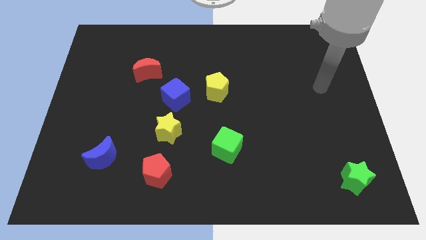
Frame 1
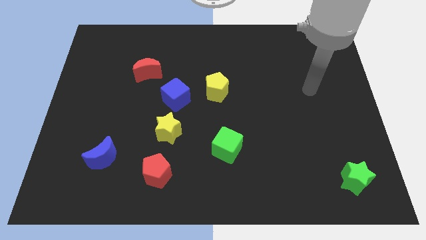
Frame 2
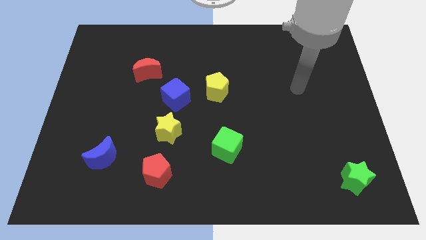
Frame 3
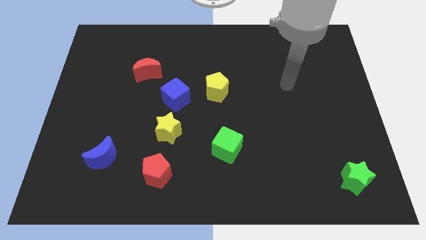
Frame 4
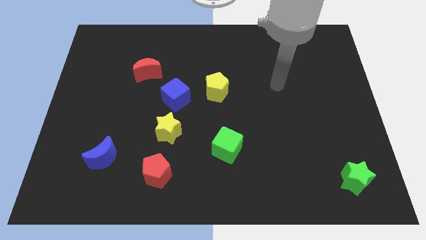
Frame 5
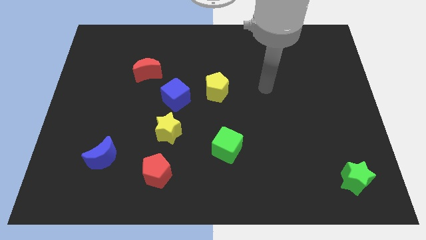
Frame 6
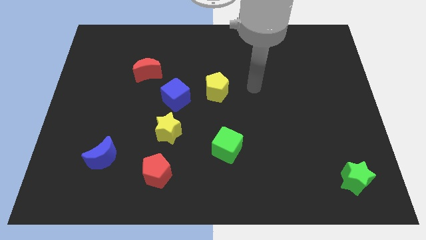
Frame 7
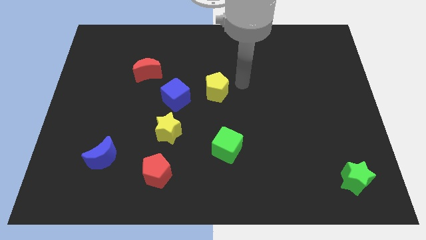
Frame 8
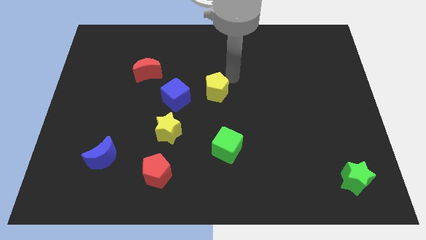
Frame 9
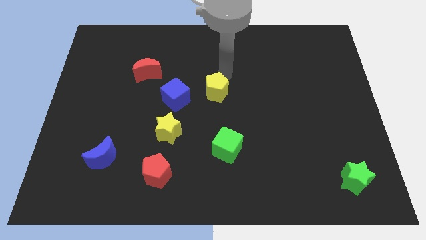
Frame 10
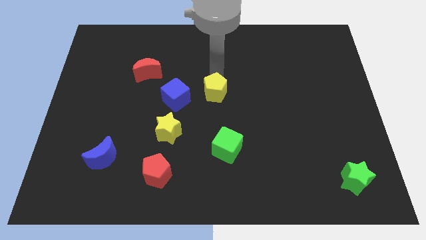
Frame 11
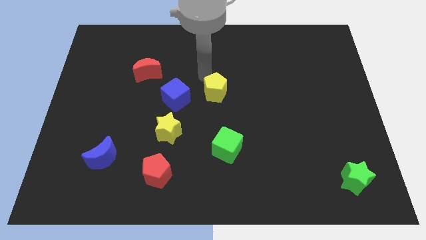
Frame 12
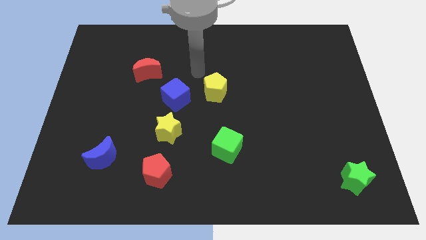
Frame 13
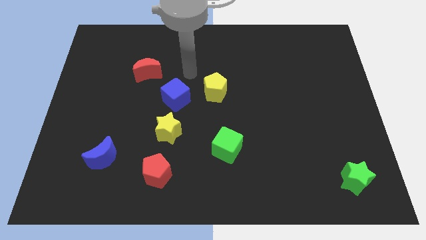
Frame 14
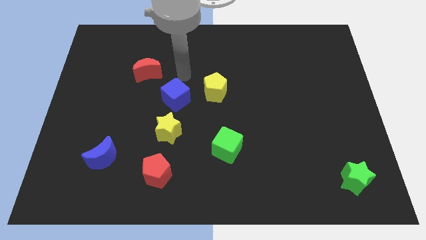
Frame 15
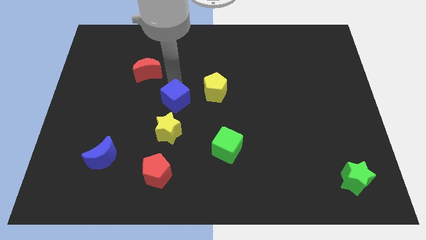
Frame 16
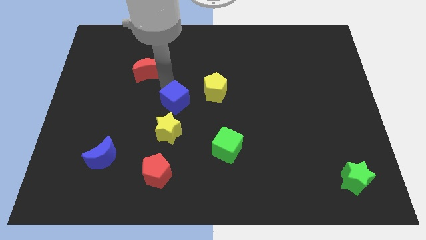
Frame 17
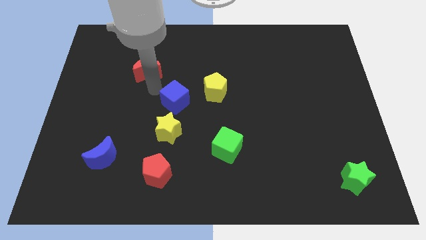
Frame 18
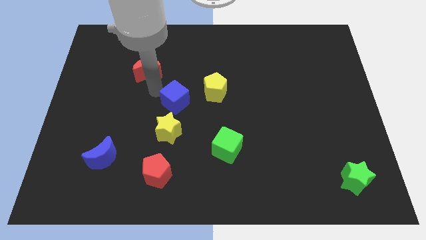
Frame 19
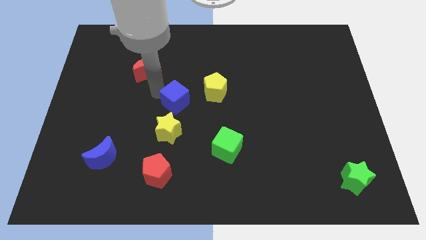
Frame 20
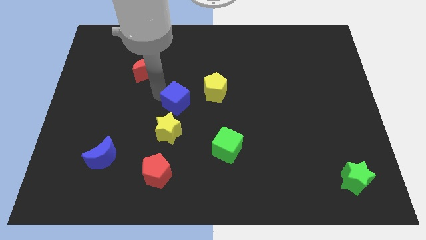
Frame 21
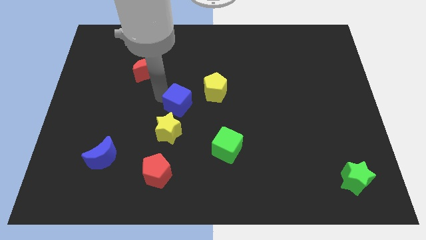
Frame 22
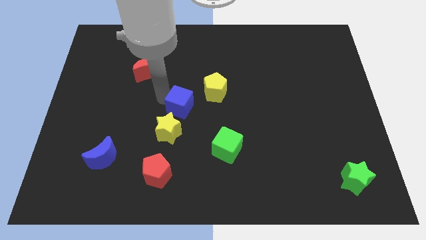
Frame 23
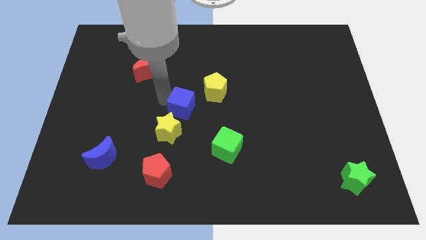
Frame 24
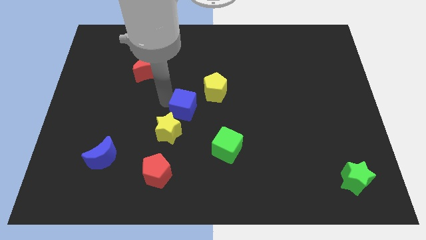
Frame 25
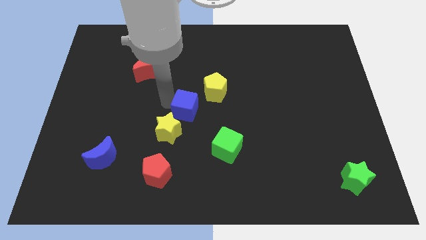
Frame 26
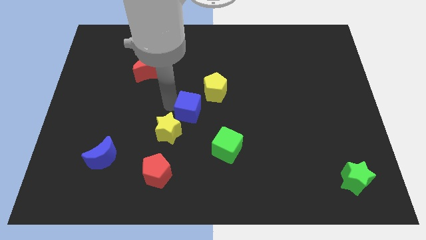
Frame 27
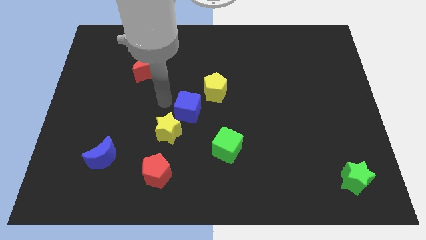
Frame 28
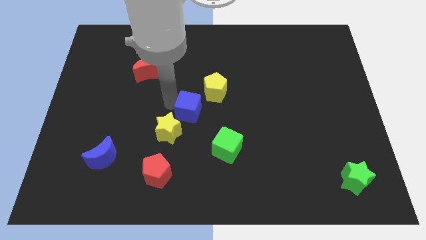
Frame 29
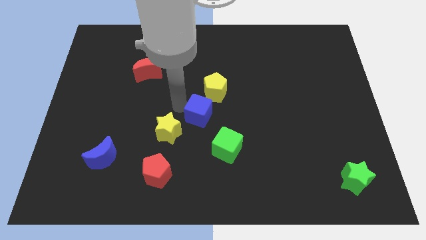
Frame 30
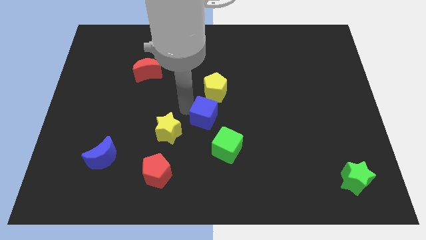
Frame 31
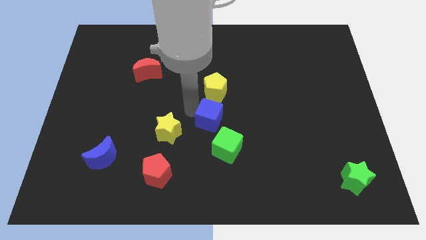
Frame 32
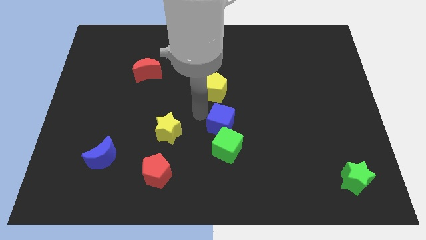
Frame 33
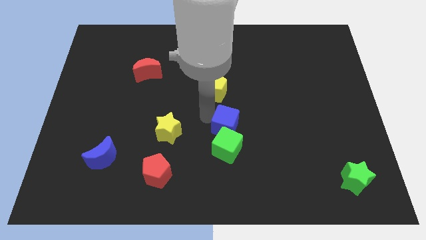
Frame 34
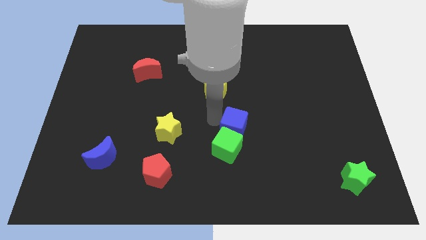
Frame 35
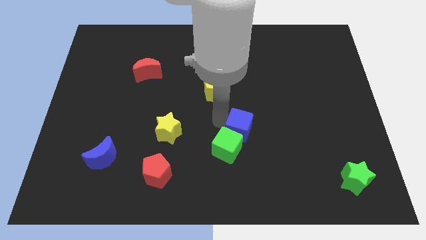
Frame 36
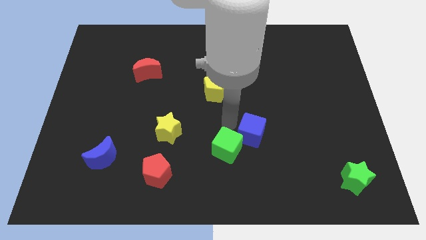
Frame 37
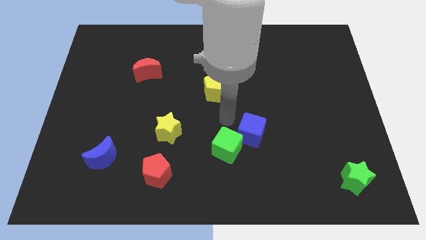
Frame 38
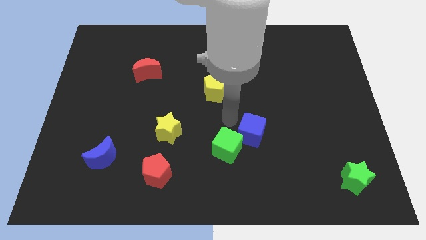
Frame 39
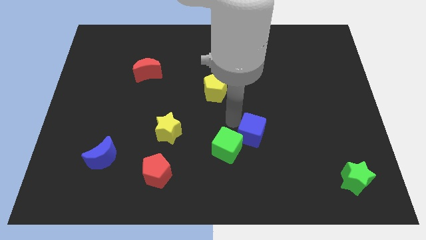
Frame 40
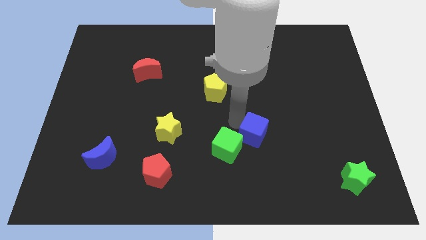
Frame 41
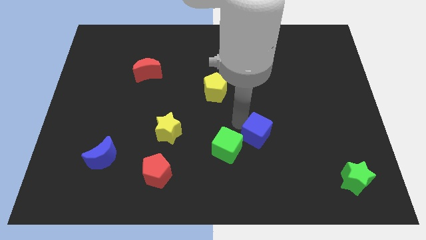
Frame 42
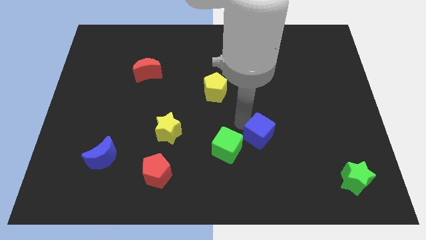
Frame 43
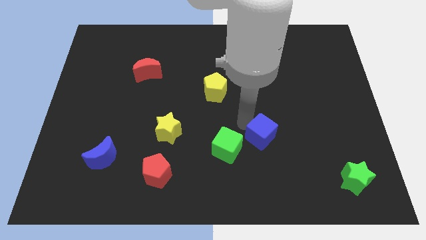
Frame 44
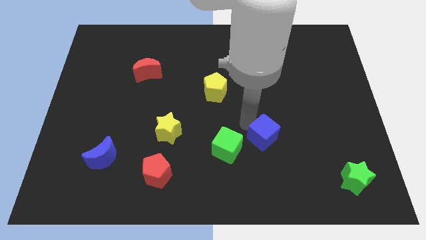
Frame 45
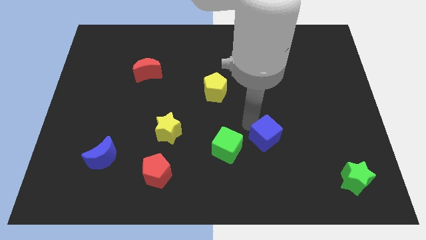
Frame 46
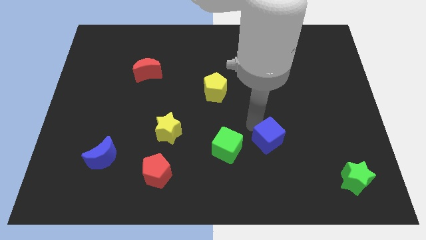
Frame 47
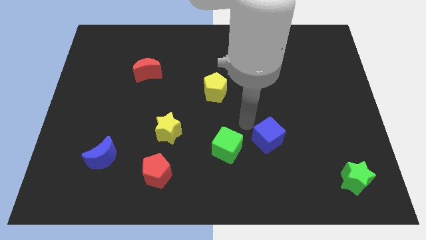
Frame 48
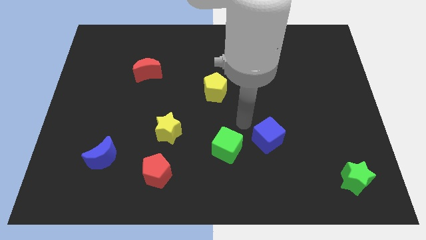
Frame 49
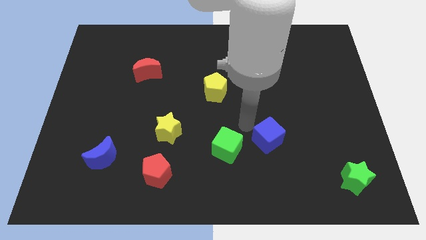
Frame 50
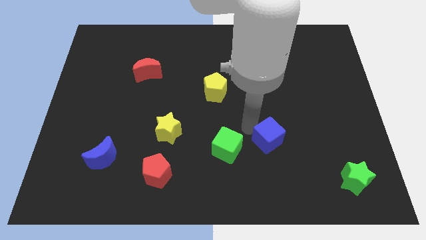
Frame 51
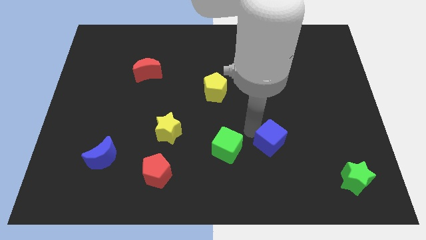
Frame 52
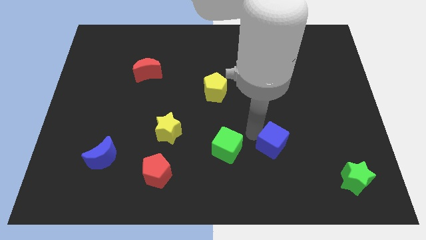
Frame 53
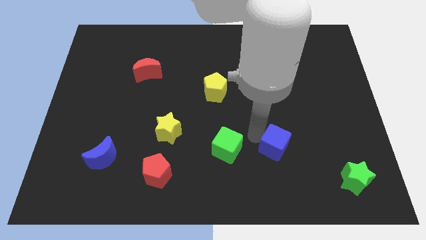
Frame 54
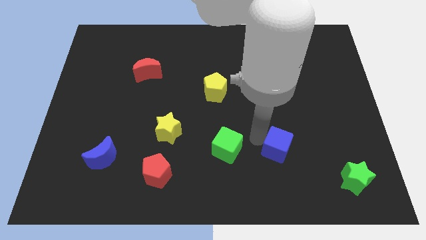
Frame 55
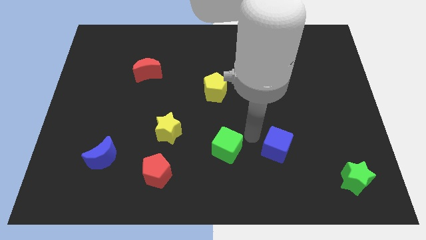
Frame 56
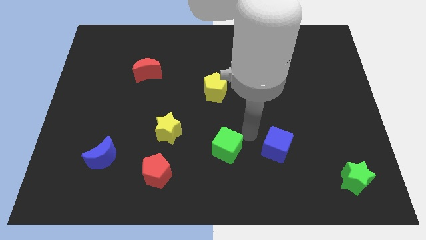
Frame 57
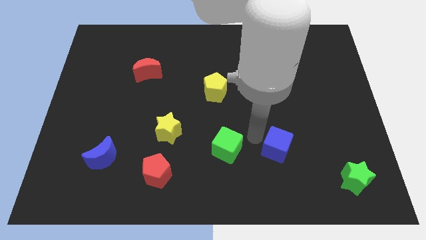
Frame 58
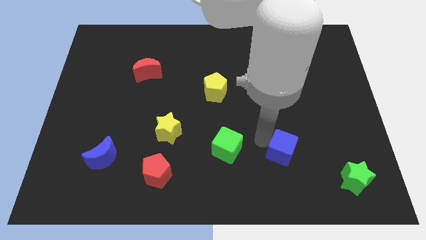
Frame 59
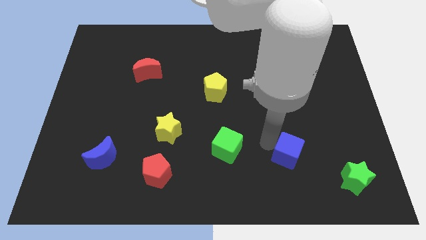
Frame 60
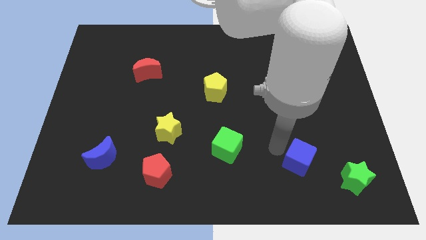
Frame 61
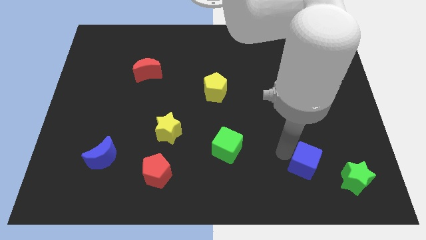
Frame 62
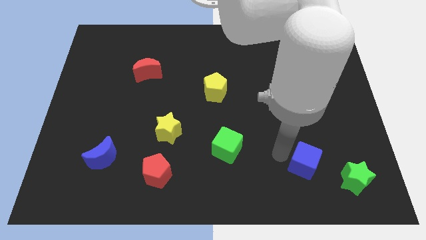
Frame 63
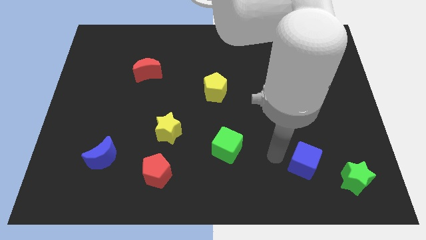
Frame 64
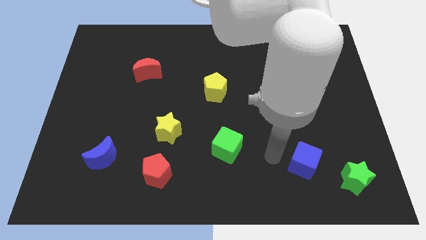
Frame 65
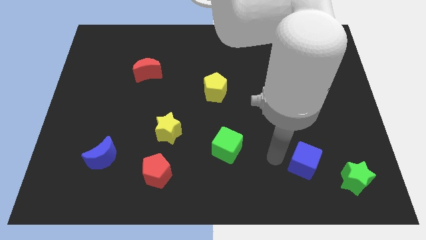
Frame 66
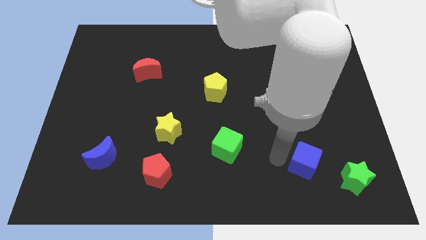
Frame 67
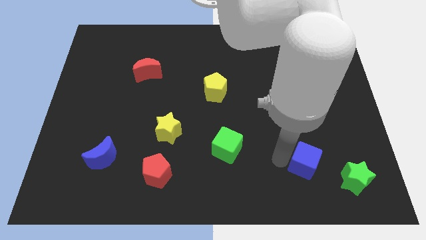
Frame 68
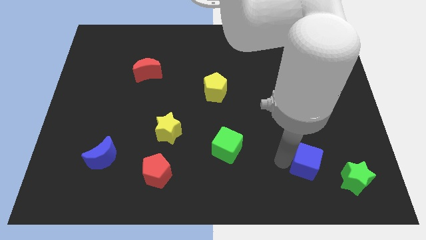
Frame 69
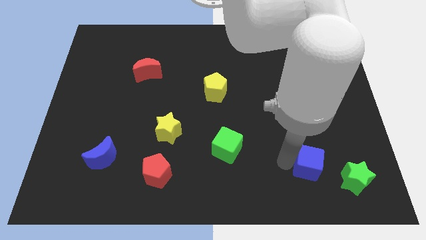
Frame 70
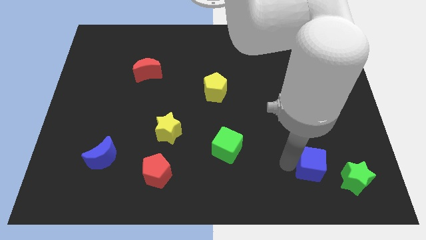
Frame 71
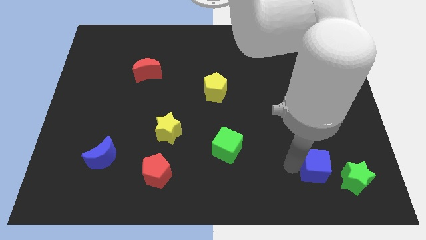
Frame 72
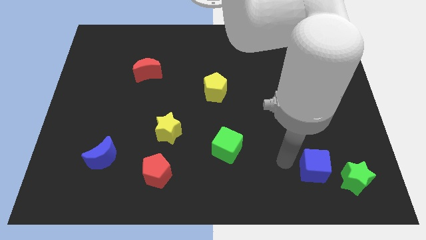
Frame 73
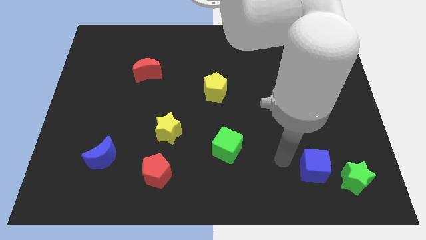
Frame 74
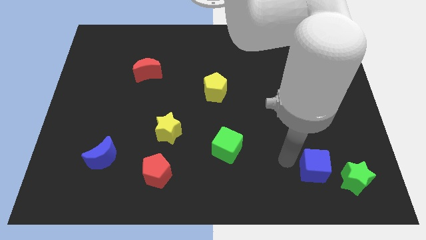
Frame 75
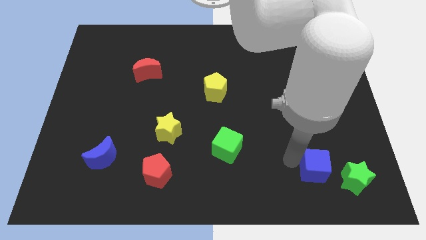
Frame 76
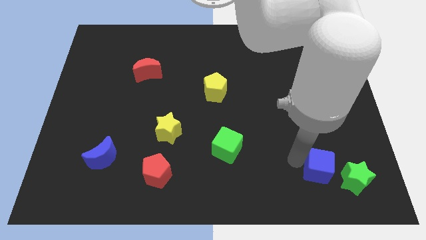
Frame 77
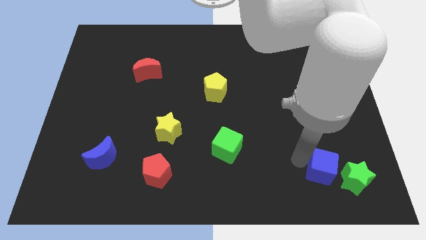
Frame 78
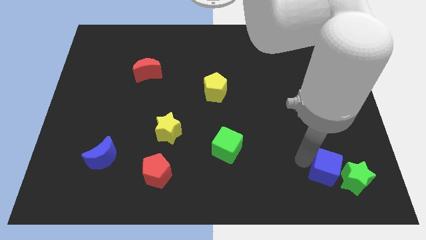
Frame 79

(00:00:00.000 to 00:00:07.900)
push the blue cube next to the green star
